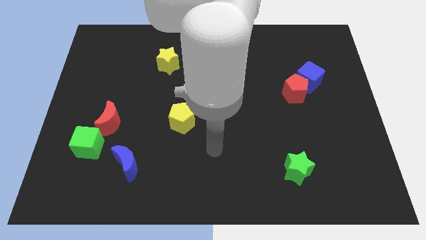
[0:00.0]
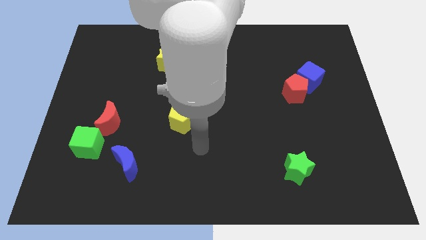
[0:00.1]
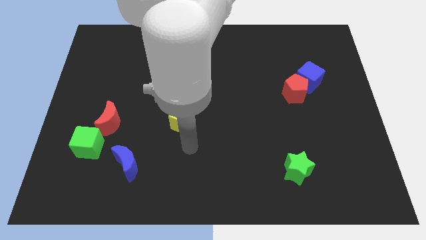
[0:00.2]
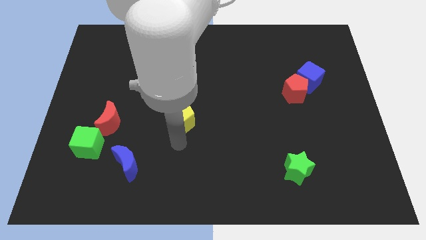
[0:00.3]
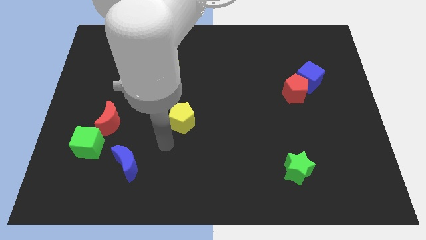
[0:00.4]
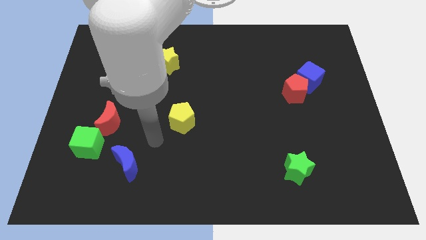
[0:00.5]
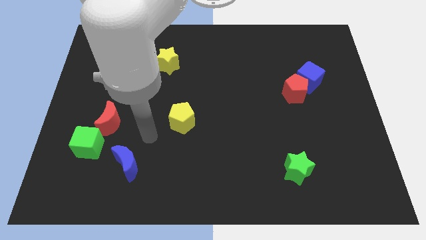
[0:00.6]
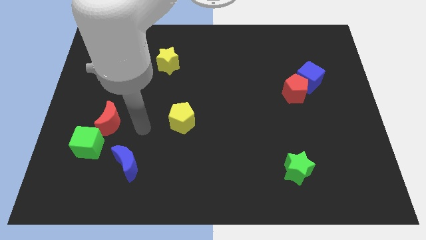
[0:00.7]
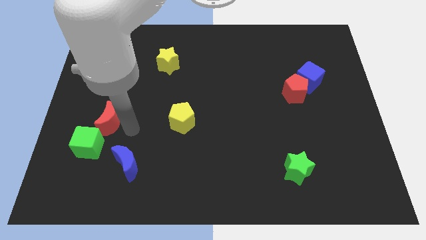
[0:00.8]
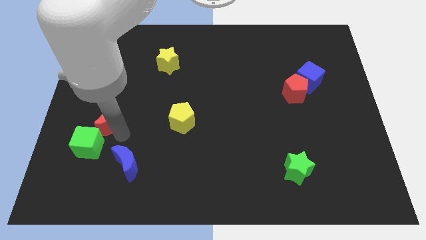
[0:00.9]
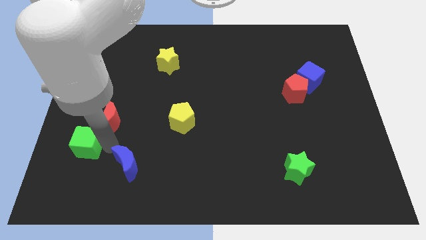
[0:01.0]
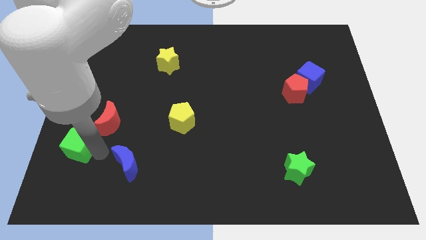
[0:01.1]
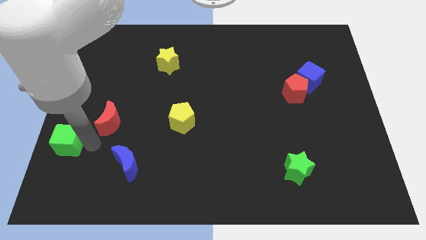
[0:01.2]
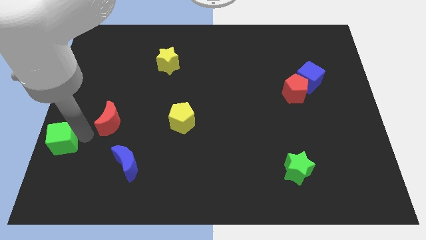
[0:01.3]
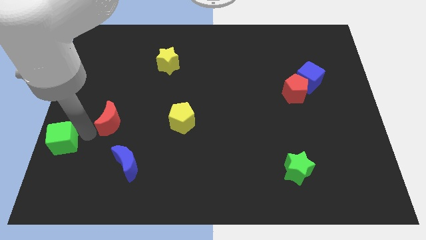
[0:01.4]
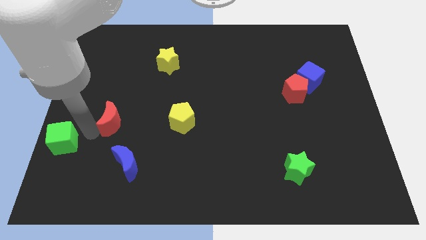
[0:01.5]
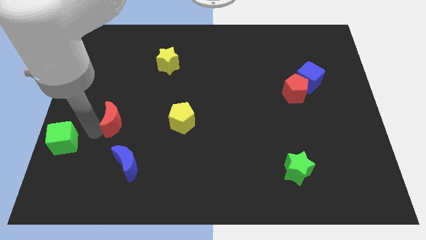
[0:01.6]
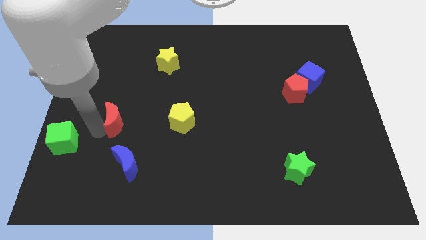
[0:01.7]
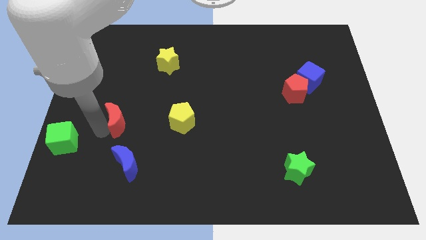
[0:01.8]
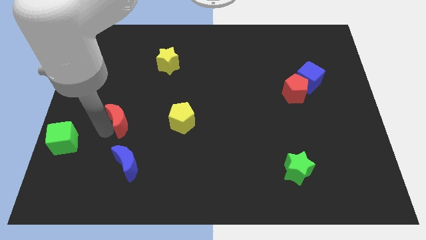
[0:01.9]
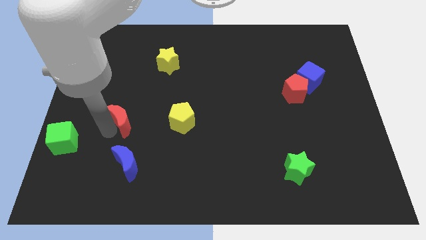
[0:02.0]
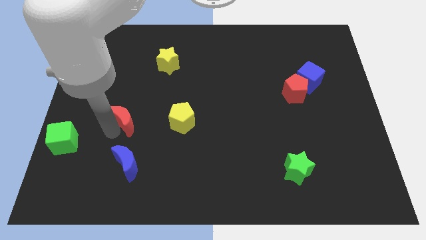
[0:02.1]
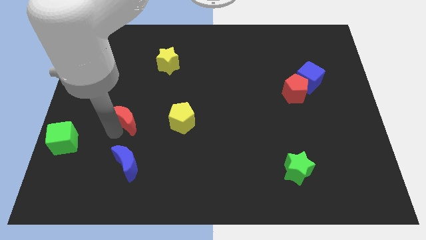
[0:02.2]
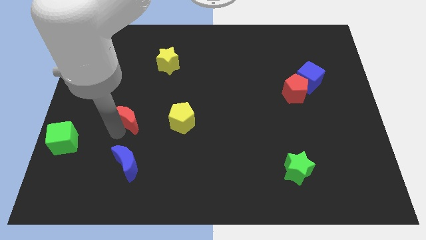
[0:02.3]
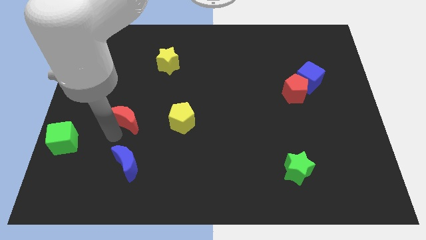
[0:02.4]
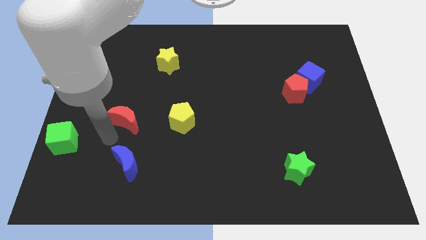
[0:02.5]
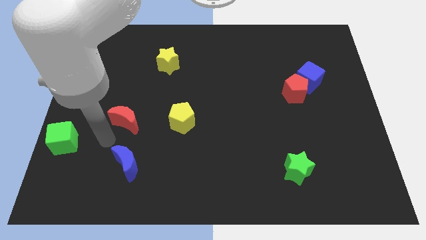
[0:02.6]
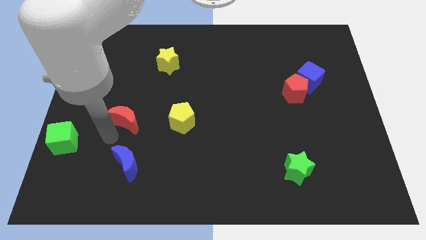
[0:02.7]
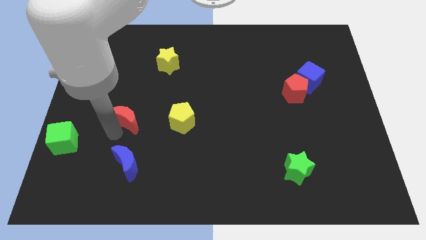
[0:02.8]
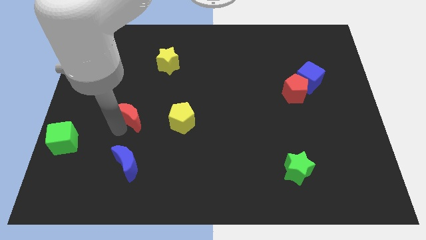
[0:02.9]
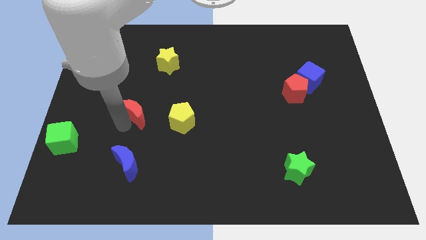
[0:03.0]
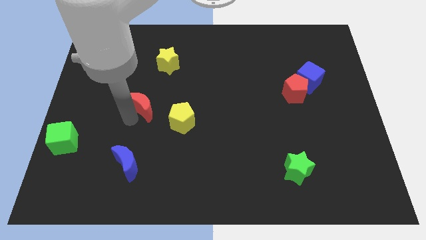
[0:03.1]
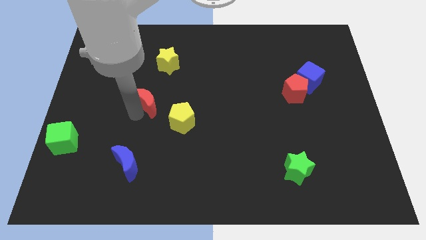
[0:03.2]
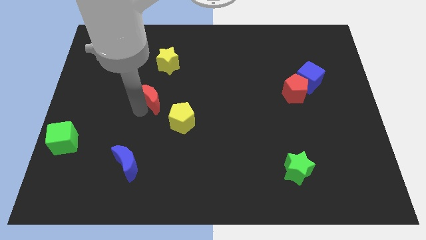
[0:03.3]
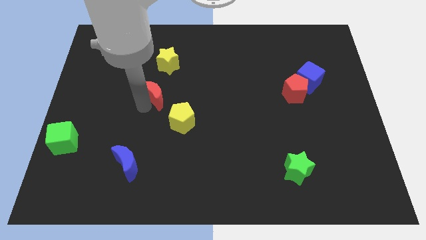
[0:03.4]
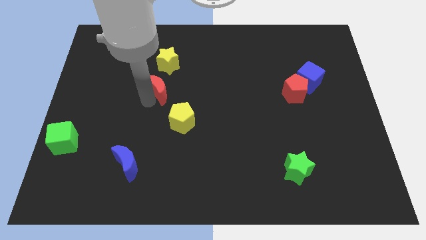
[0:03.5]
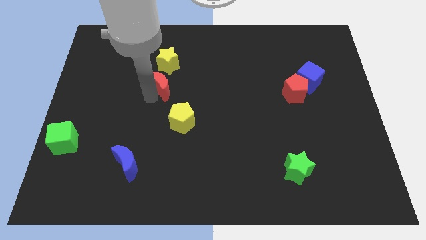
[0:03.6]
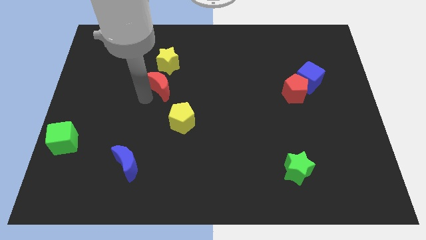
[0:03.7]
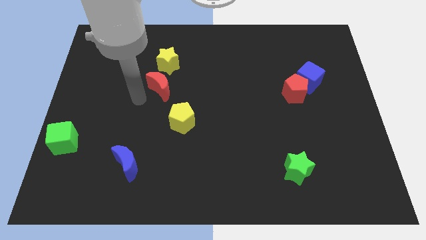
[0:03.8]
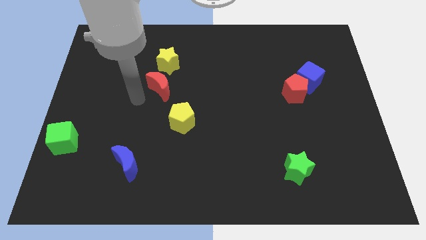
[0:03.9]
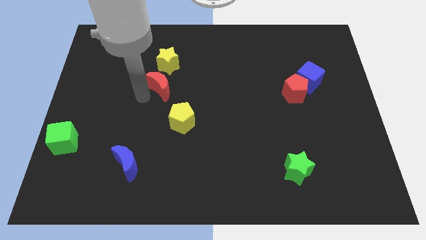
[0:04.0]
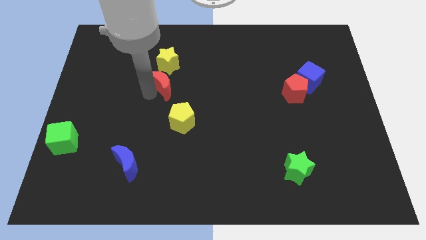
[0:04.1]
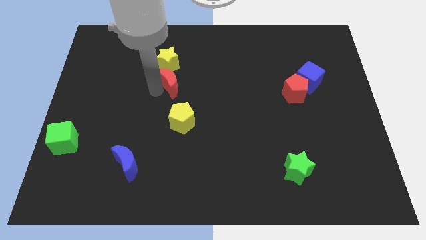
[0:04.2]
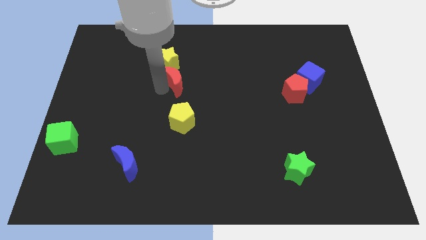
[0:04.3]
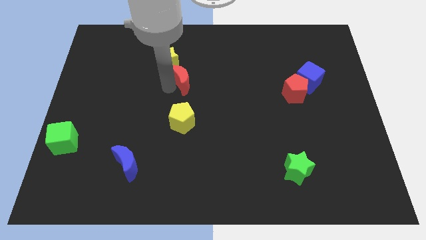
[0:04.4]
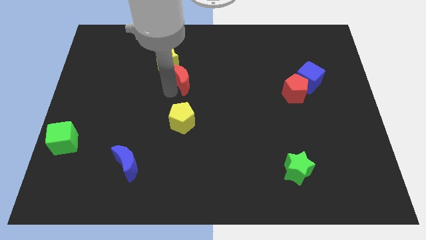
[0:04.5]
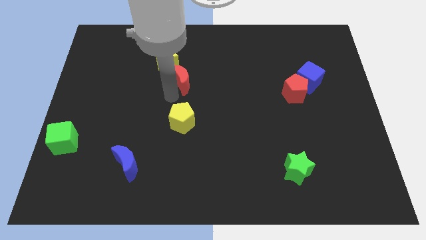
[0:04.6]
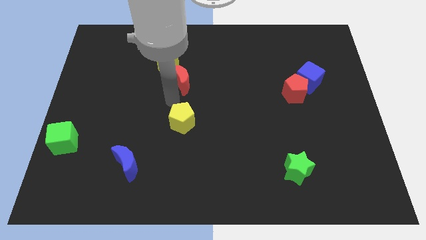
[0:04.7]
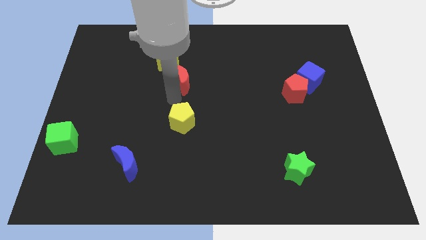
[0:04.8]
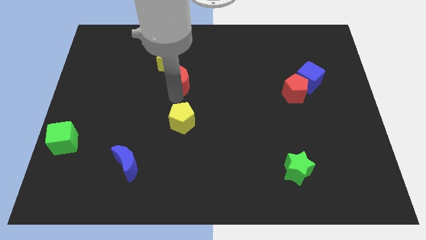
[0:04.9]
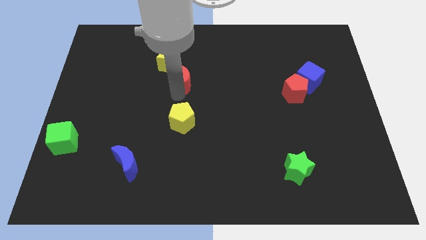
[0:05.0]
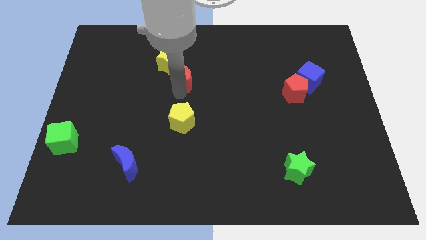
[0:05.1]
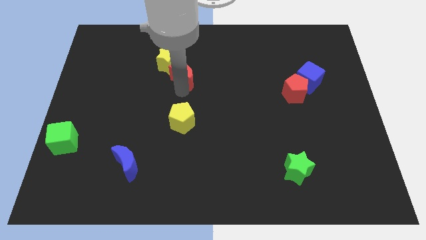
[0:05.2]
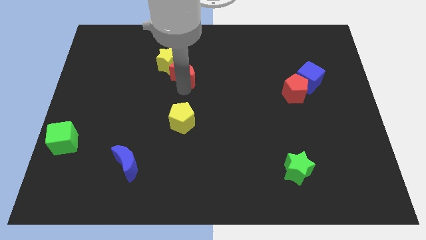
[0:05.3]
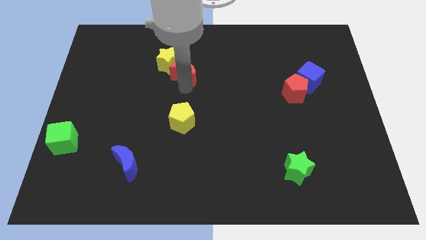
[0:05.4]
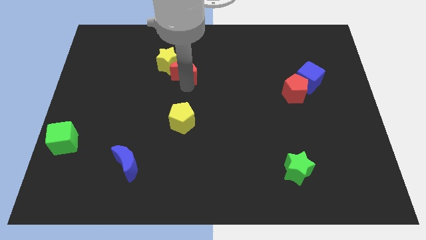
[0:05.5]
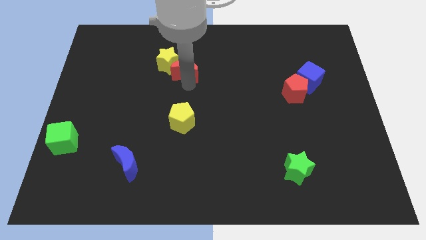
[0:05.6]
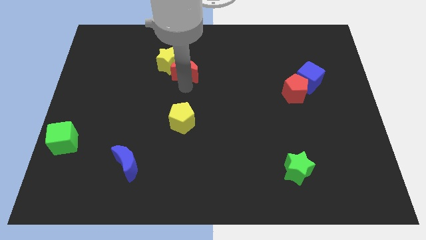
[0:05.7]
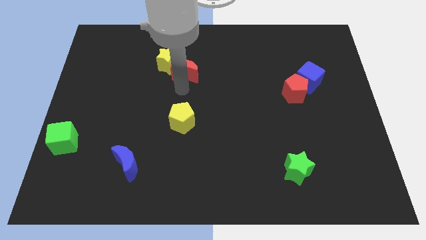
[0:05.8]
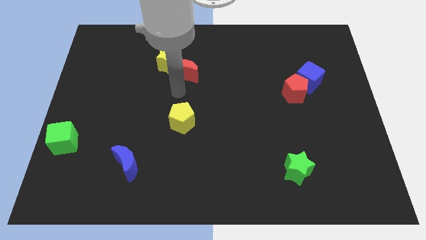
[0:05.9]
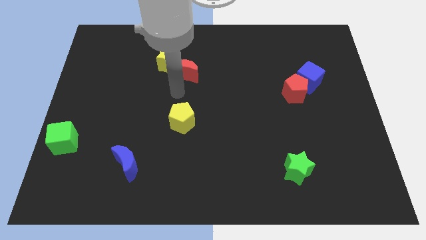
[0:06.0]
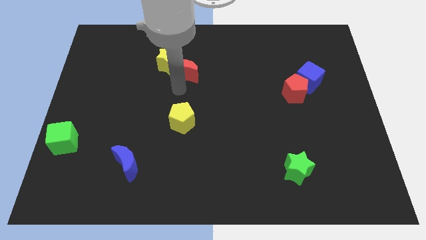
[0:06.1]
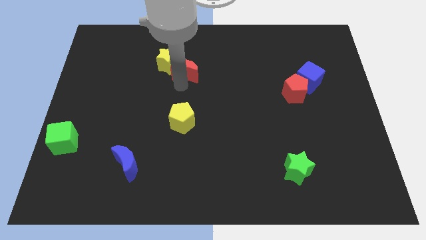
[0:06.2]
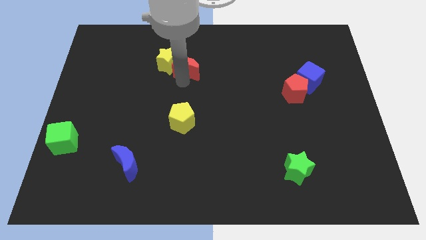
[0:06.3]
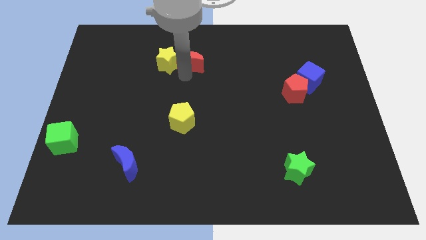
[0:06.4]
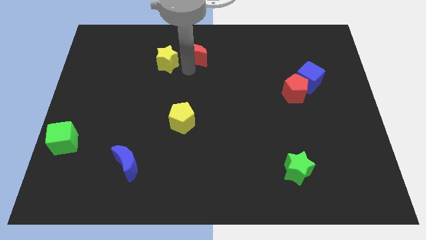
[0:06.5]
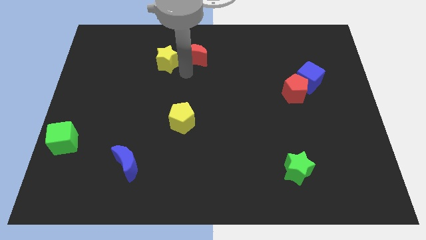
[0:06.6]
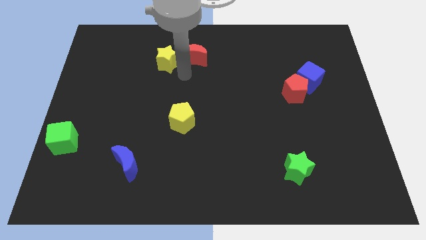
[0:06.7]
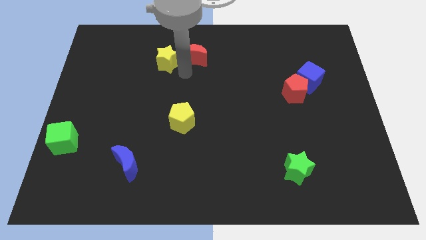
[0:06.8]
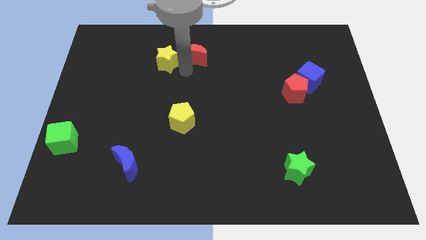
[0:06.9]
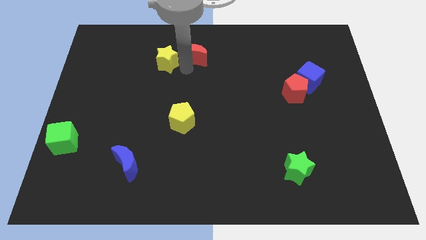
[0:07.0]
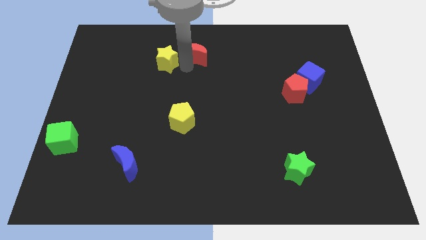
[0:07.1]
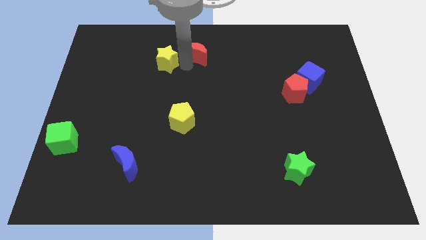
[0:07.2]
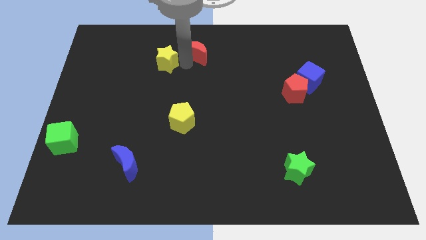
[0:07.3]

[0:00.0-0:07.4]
push the red moon to the top
